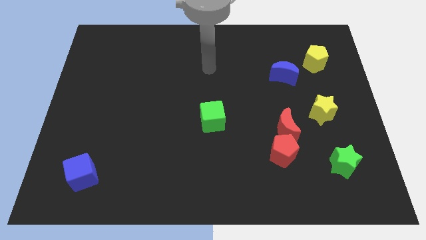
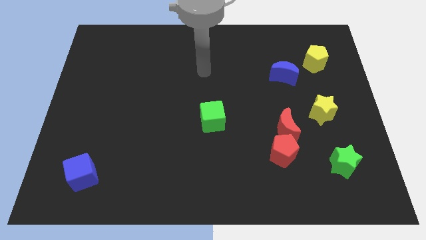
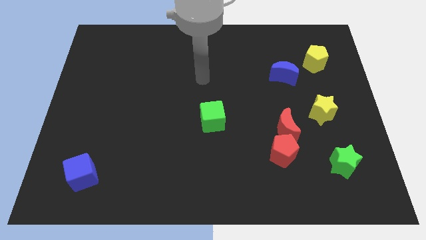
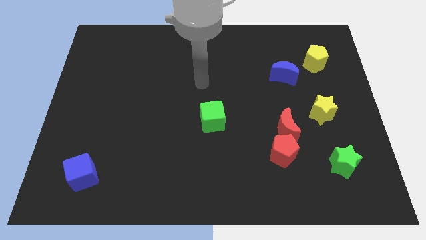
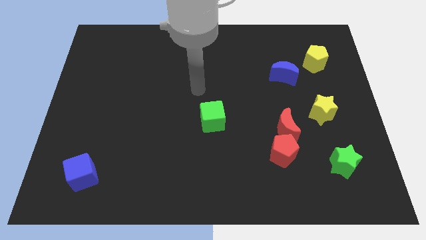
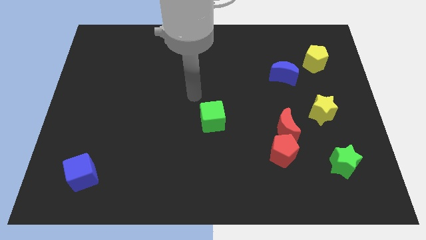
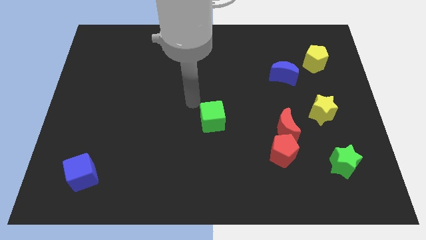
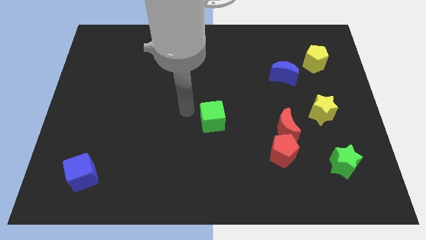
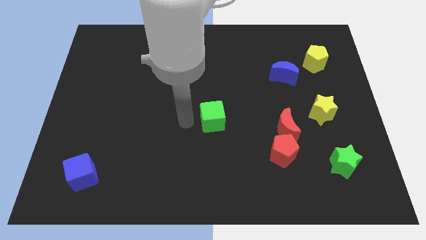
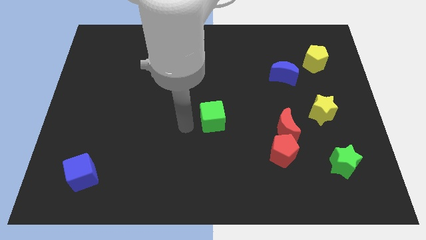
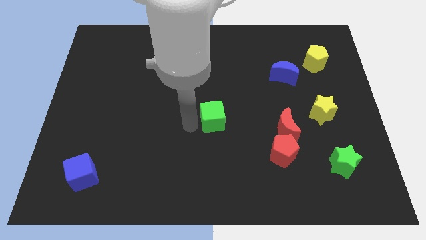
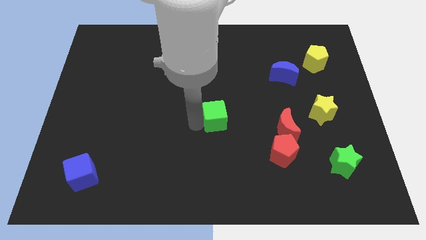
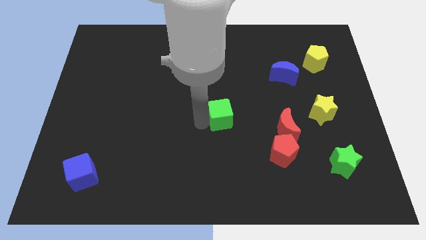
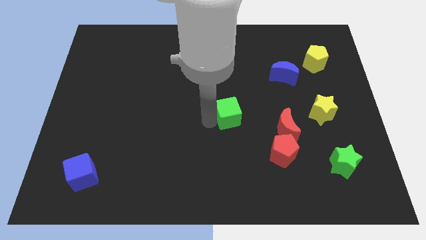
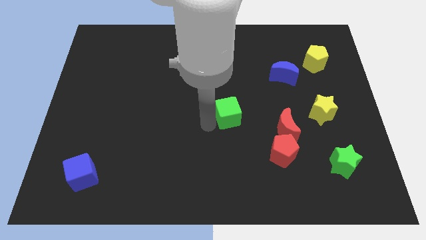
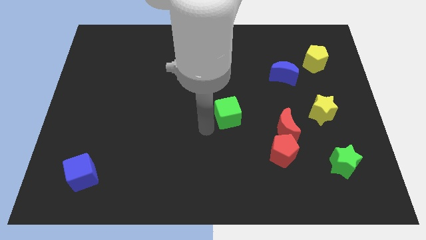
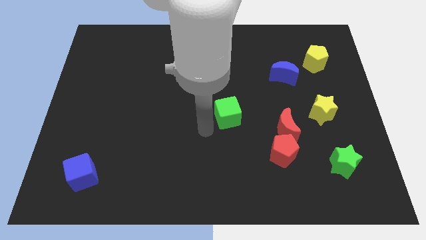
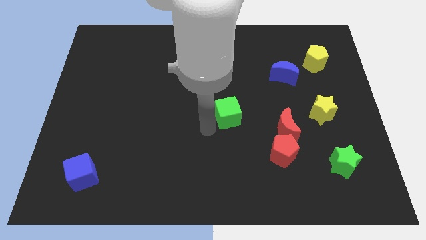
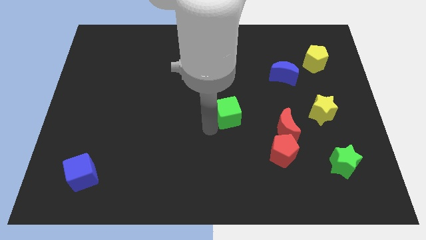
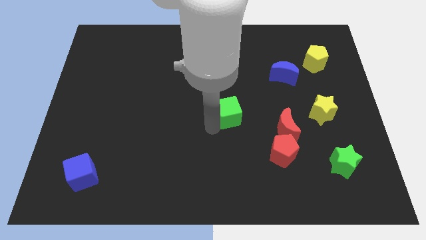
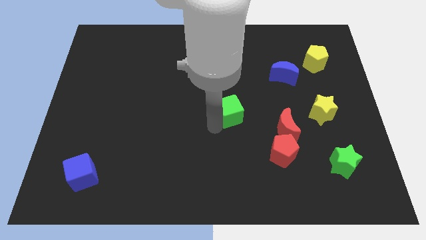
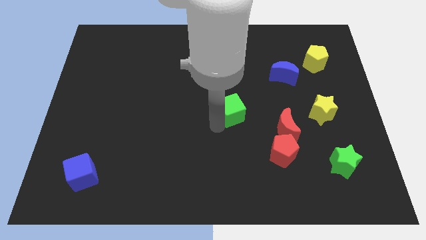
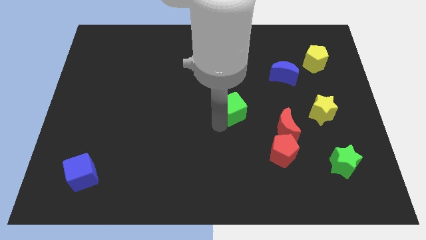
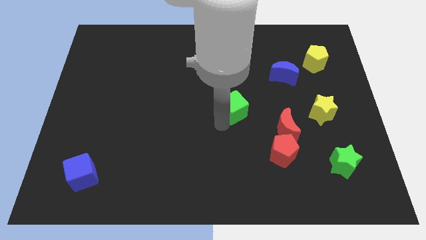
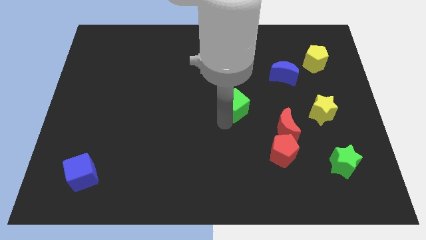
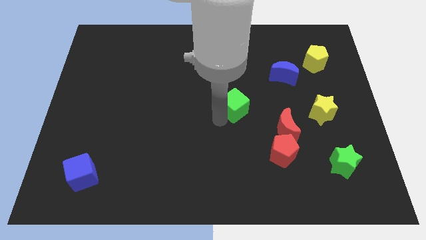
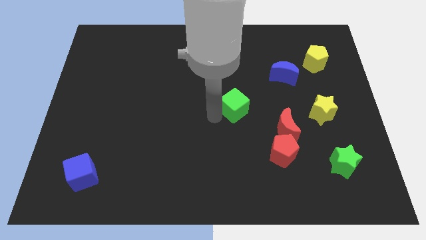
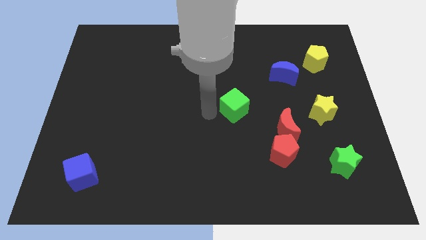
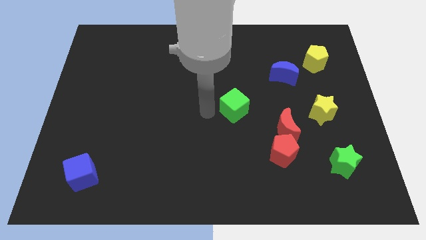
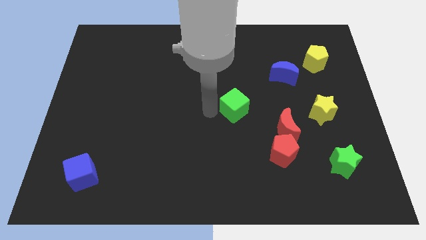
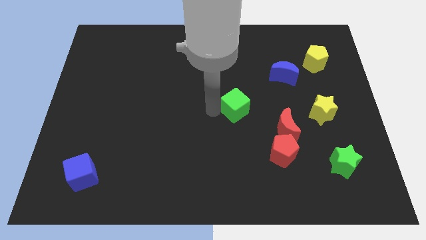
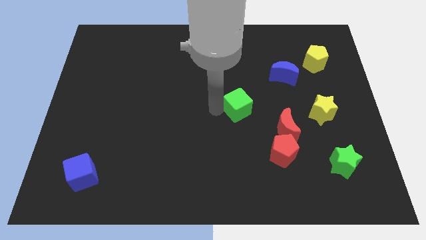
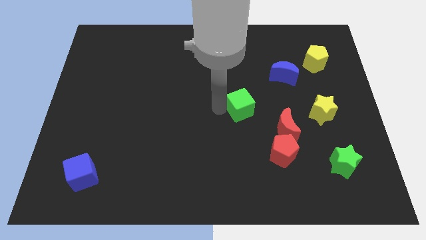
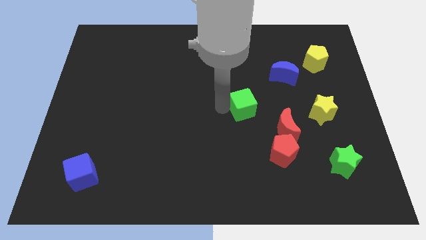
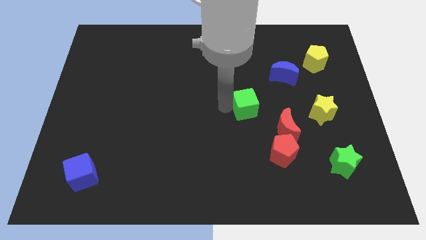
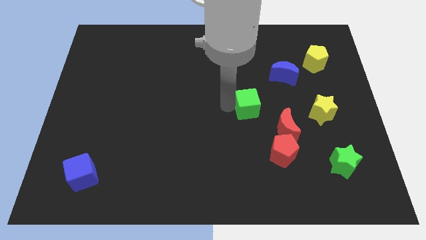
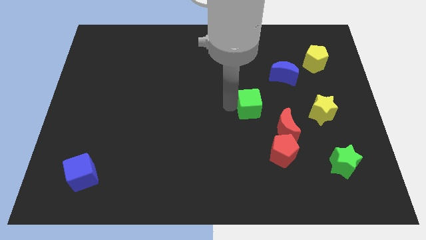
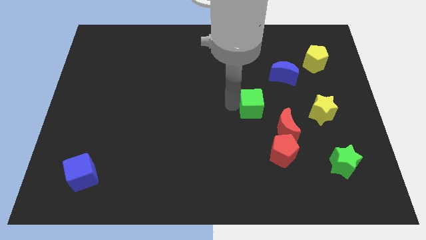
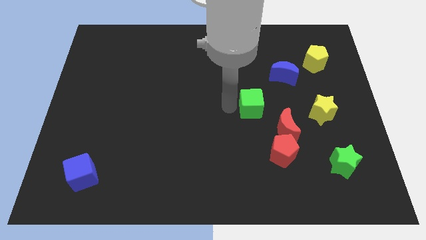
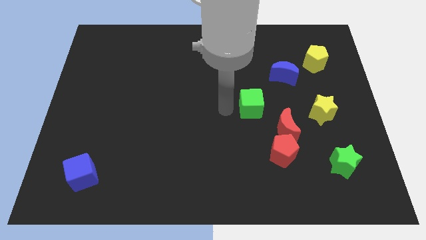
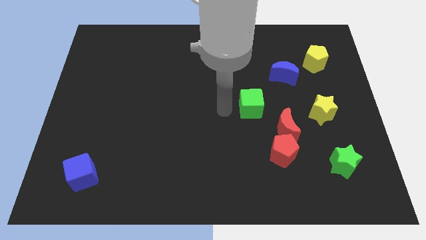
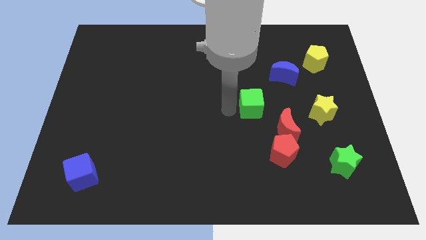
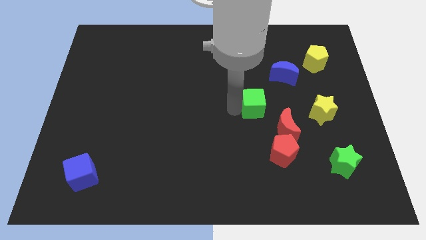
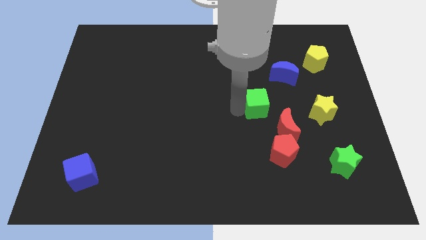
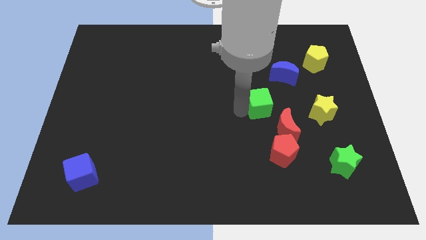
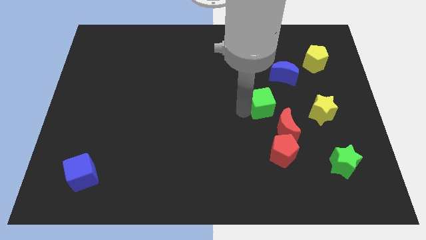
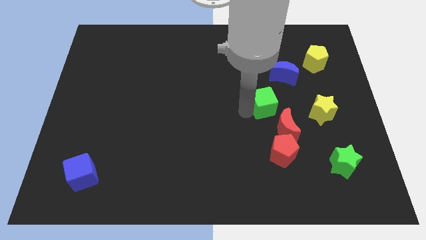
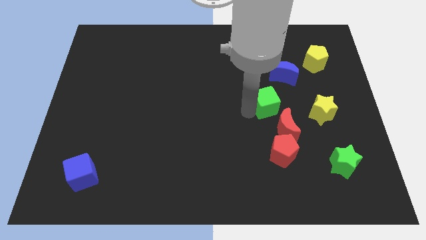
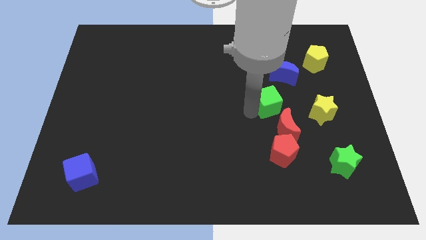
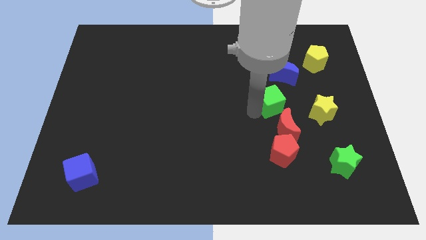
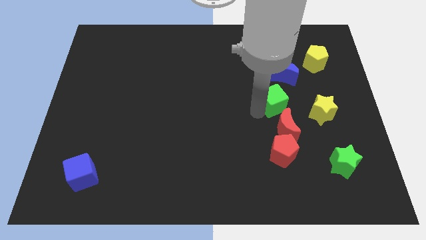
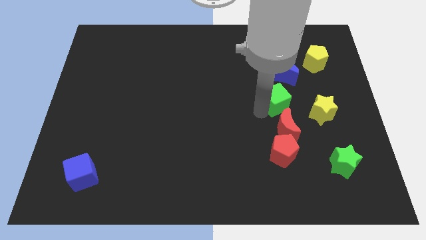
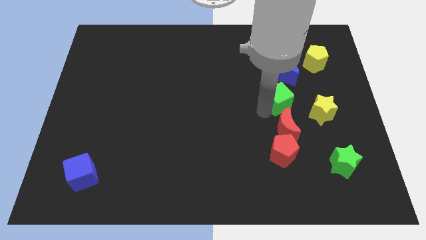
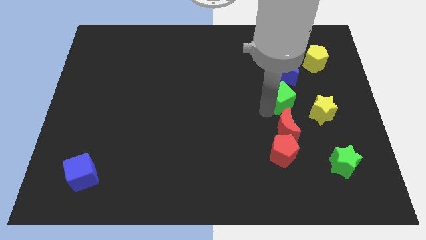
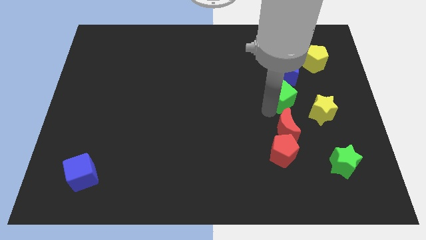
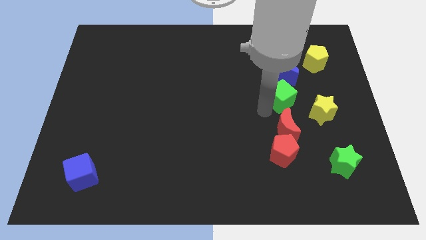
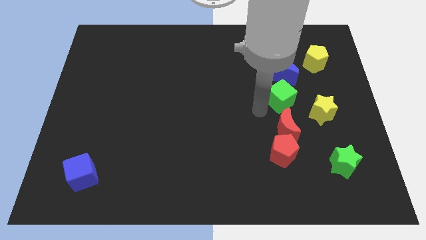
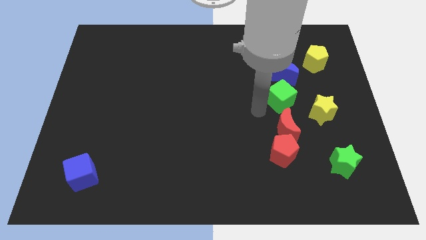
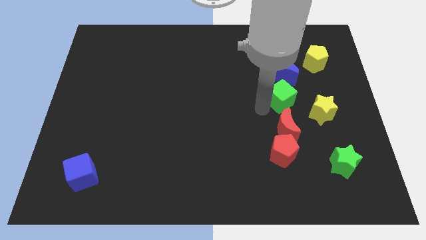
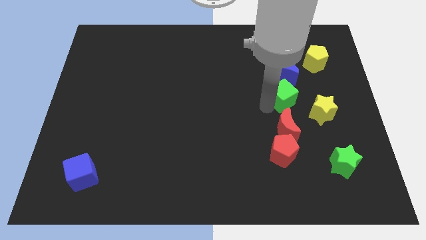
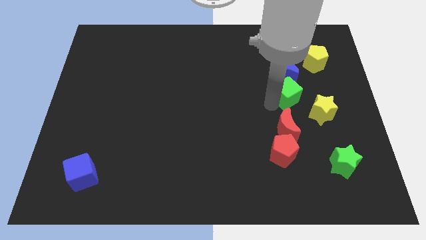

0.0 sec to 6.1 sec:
put the green cube diagonally down and to the right of the blue moon

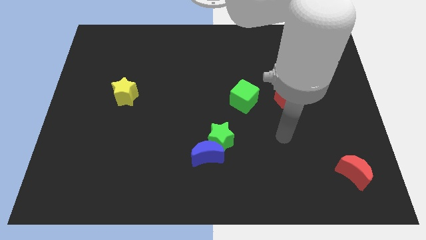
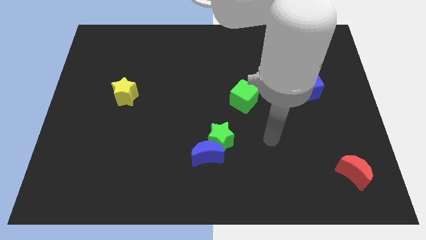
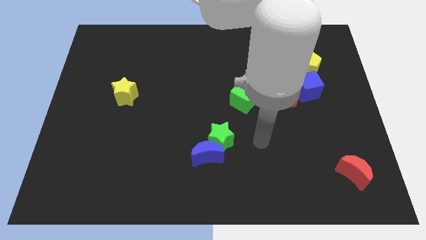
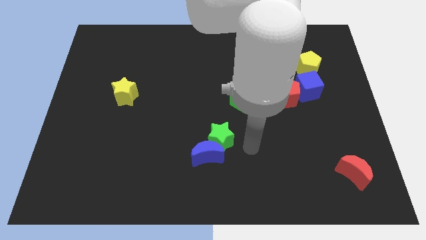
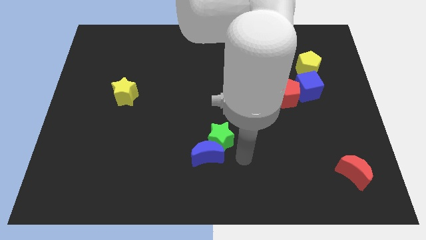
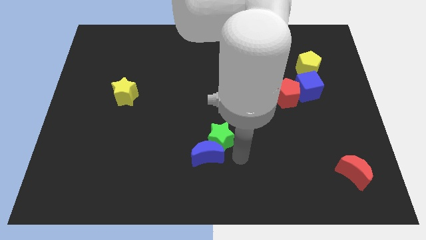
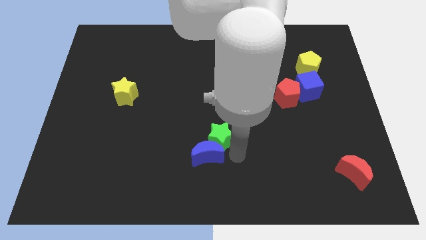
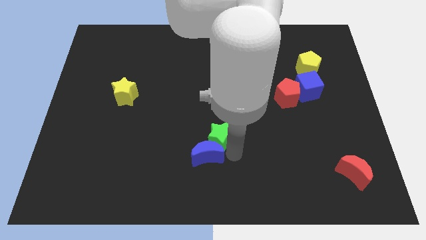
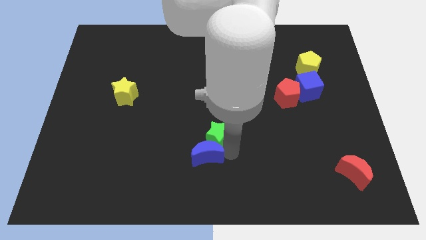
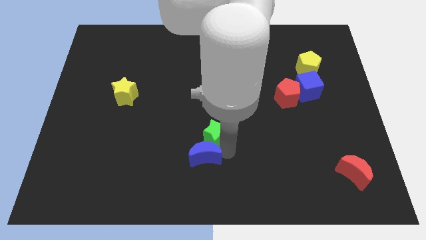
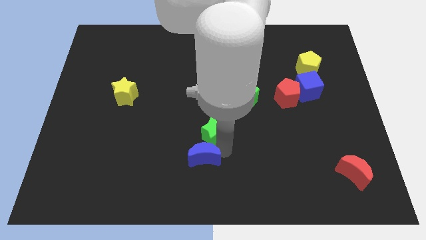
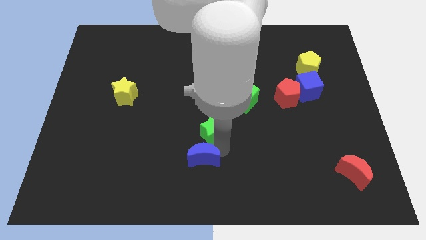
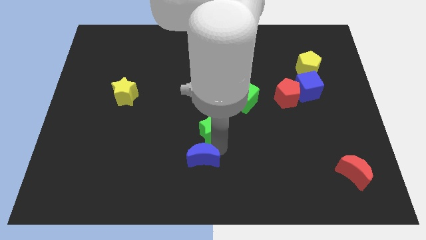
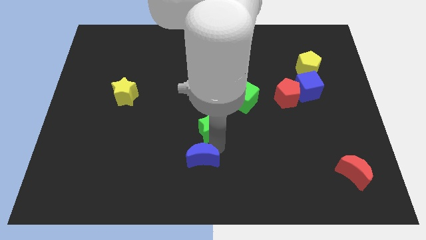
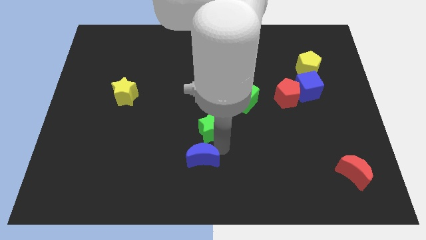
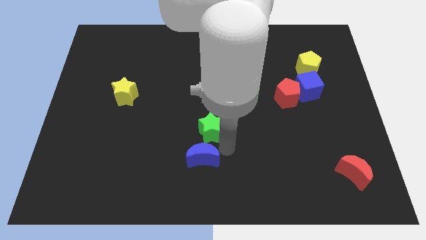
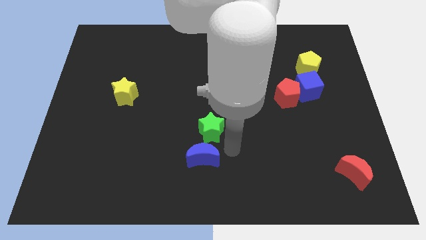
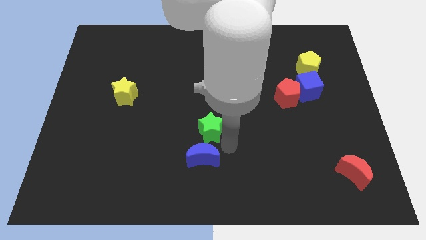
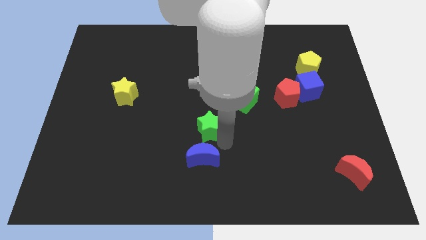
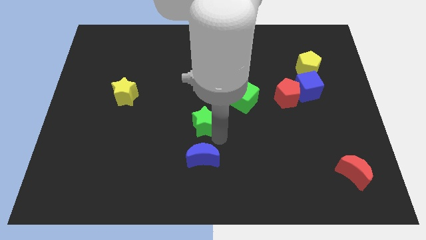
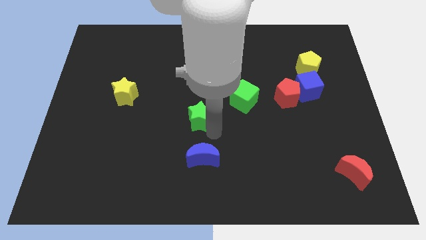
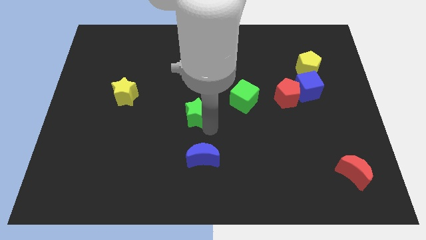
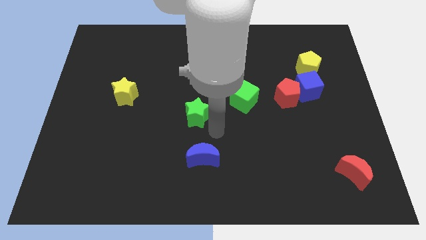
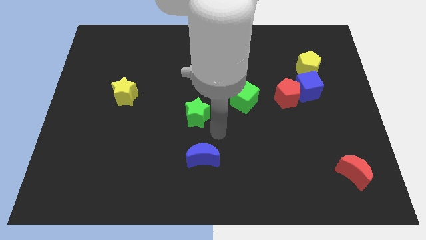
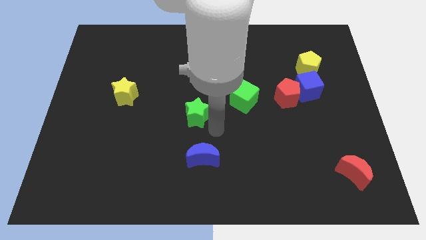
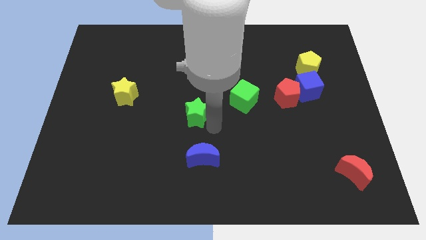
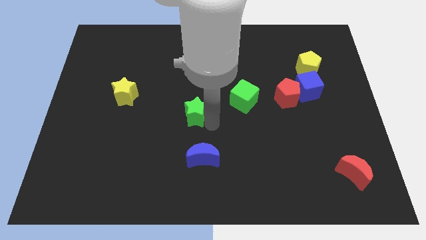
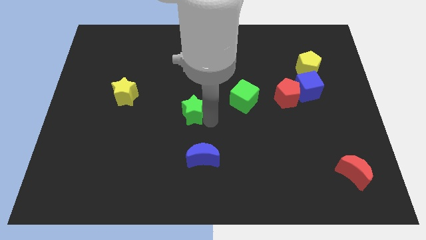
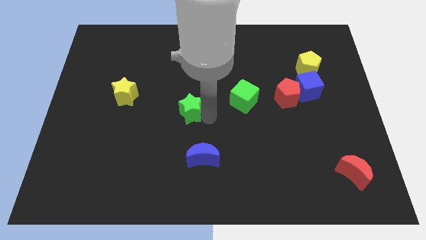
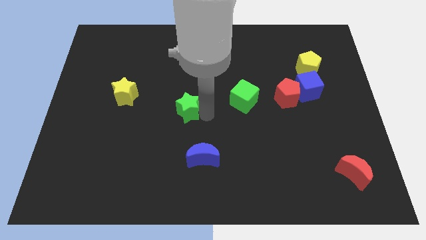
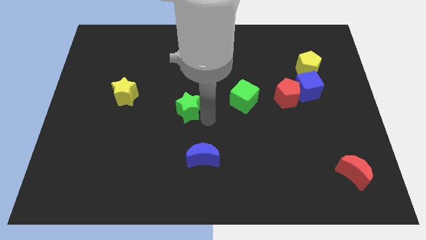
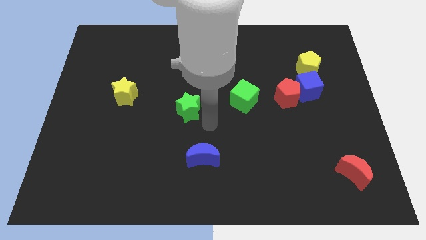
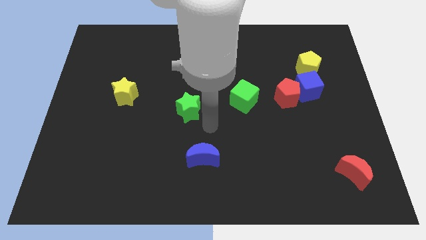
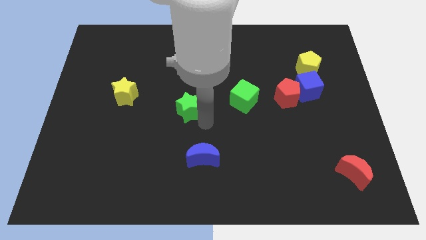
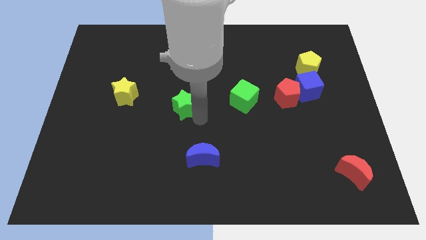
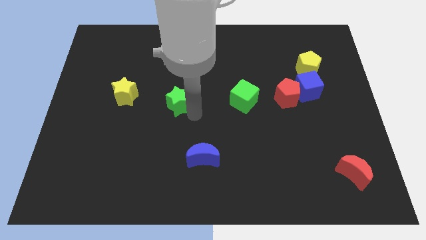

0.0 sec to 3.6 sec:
slide the green star just right of the yellow star
